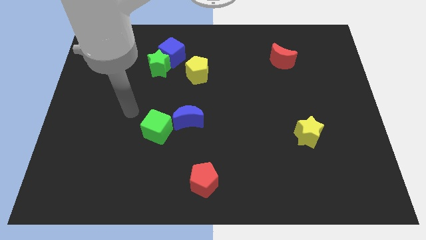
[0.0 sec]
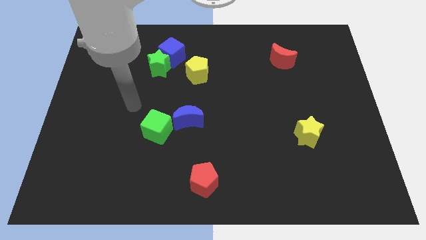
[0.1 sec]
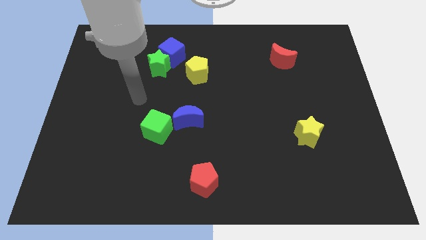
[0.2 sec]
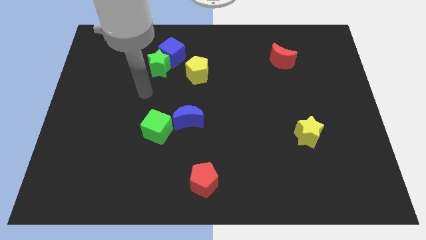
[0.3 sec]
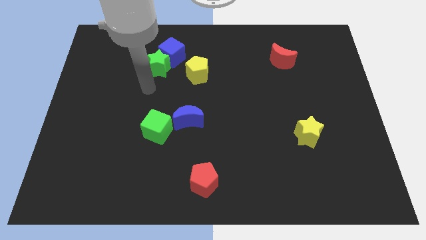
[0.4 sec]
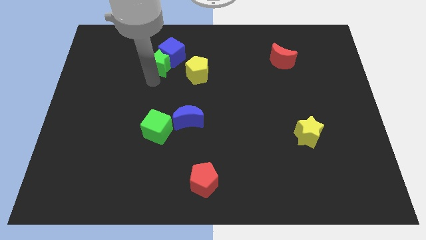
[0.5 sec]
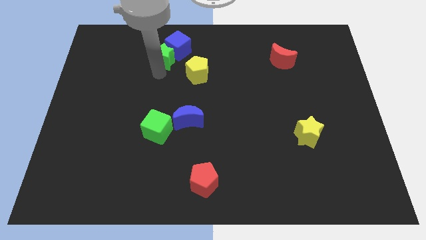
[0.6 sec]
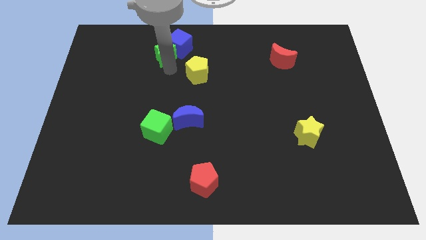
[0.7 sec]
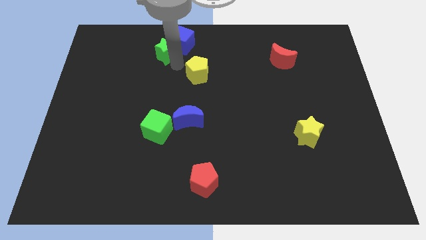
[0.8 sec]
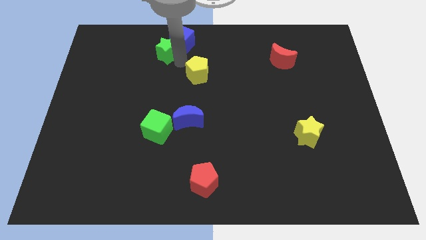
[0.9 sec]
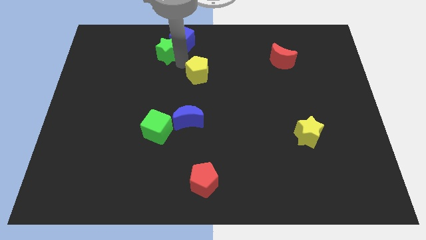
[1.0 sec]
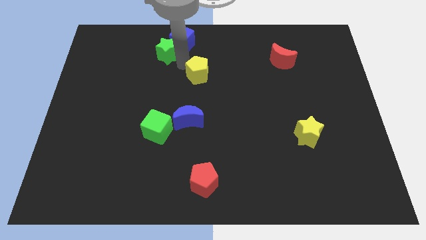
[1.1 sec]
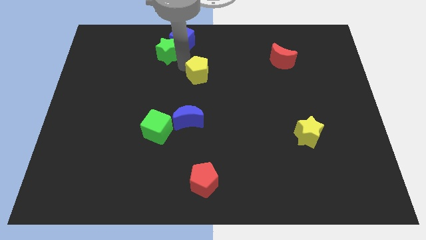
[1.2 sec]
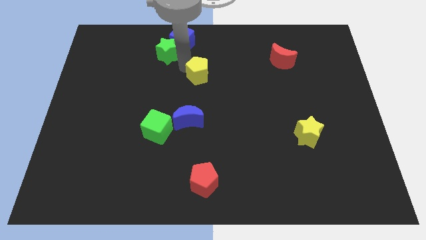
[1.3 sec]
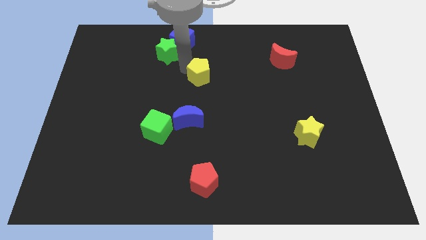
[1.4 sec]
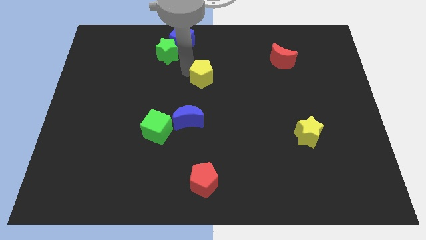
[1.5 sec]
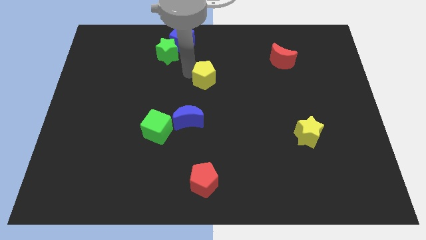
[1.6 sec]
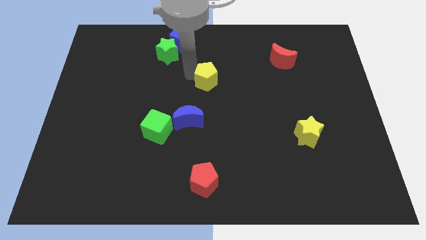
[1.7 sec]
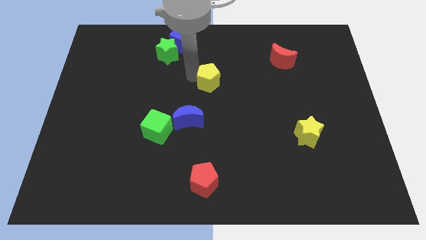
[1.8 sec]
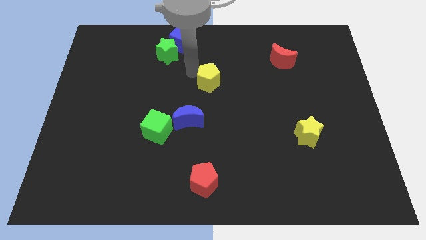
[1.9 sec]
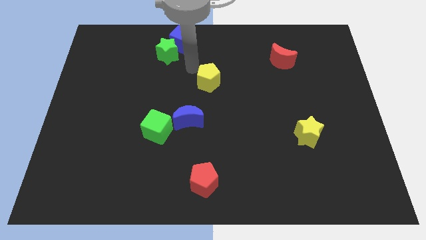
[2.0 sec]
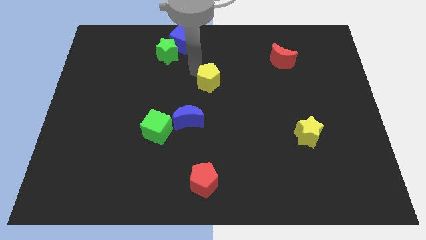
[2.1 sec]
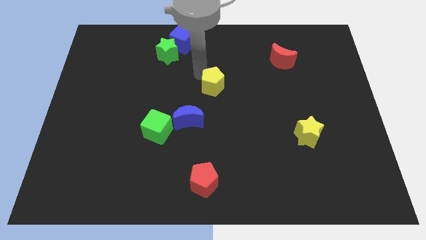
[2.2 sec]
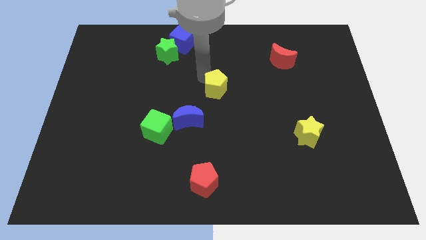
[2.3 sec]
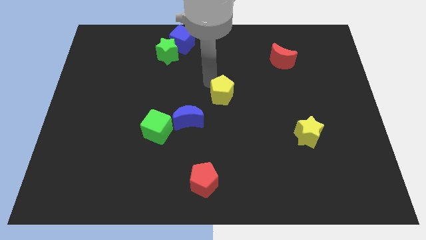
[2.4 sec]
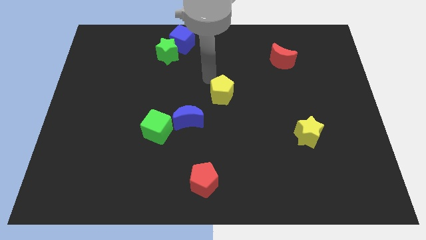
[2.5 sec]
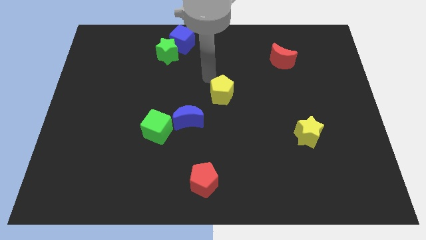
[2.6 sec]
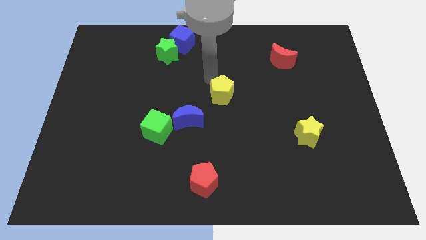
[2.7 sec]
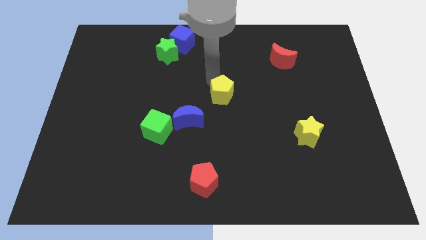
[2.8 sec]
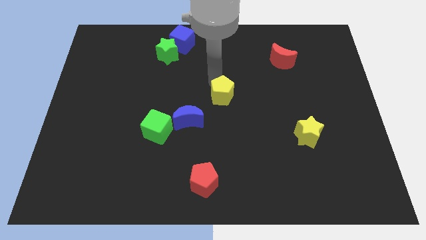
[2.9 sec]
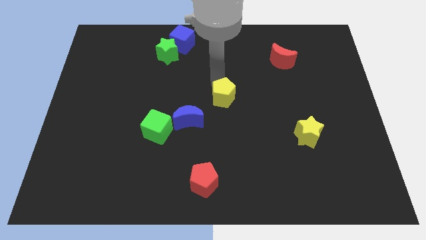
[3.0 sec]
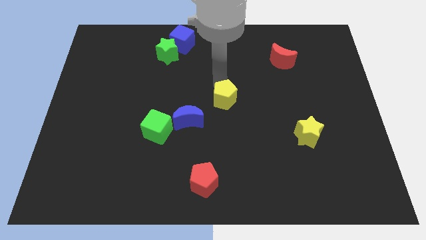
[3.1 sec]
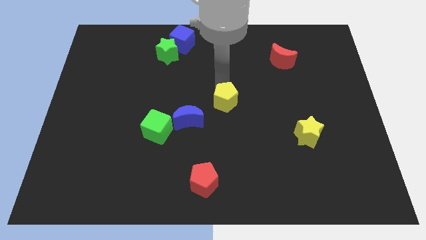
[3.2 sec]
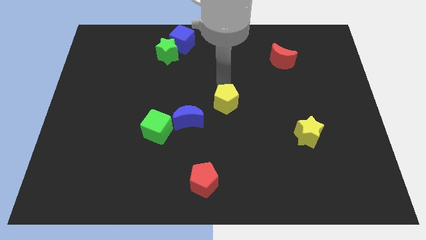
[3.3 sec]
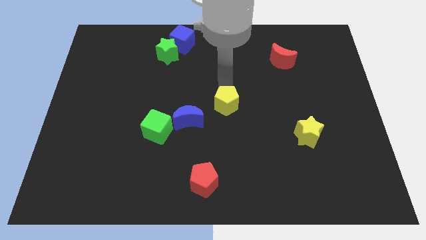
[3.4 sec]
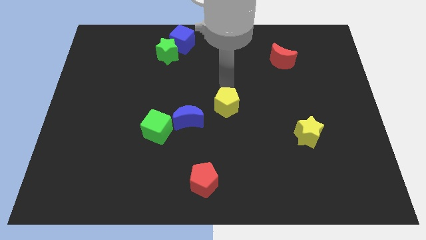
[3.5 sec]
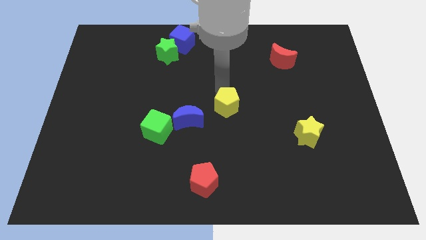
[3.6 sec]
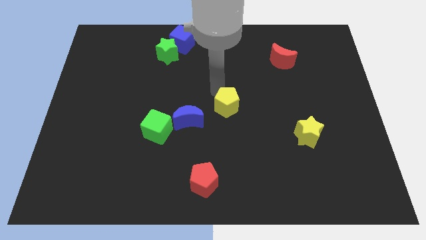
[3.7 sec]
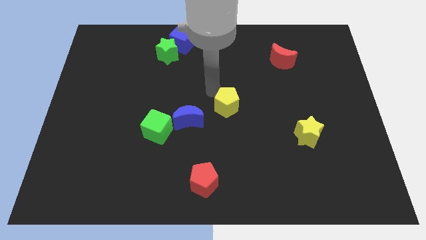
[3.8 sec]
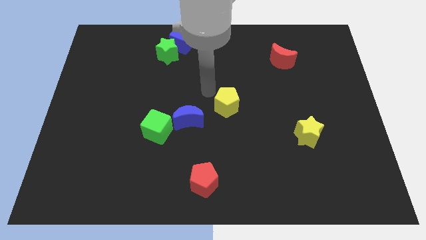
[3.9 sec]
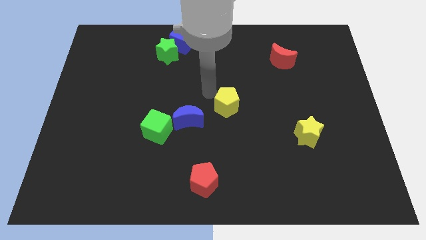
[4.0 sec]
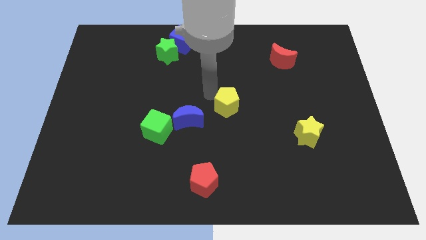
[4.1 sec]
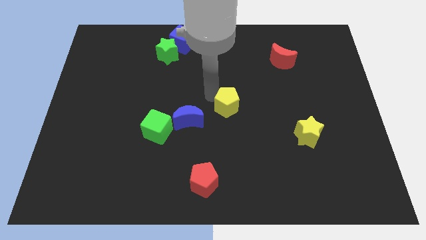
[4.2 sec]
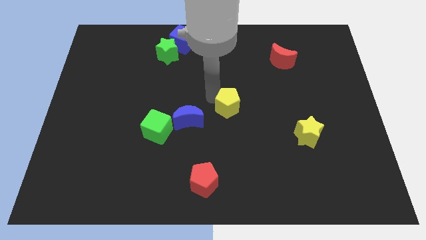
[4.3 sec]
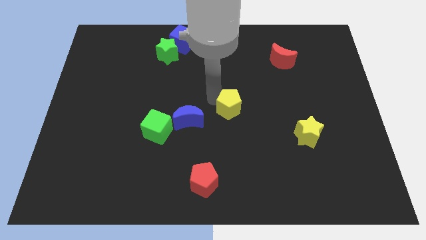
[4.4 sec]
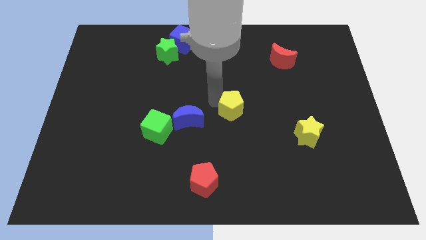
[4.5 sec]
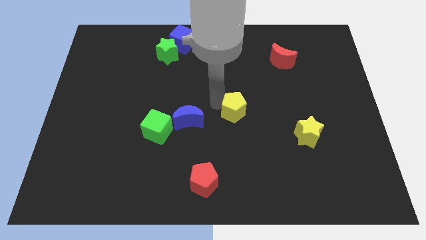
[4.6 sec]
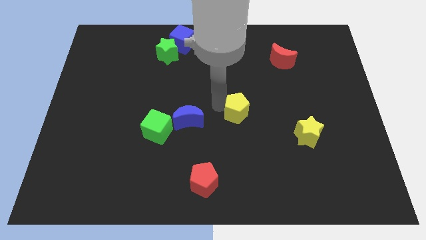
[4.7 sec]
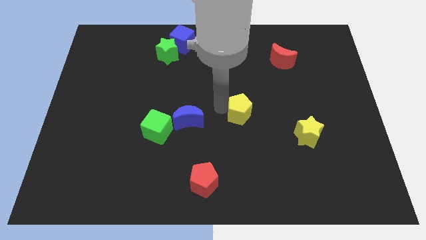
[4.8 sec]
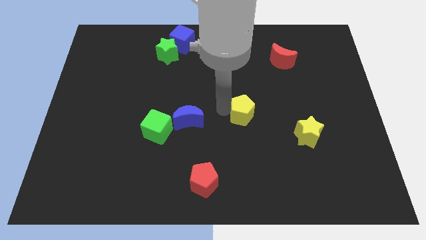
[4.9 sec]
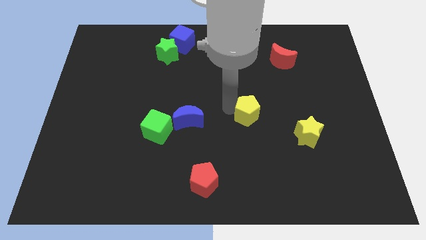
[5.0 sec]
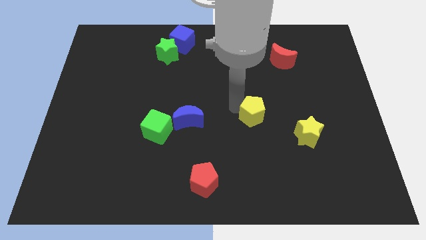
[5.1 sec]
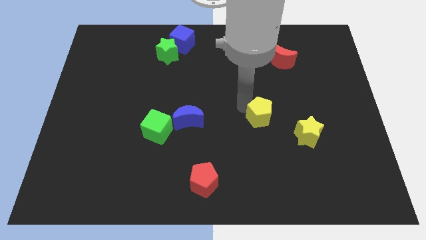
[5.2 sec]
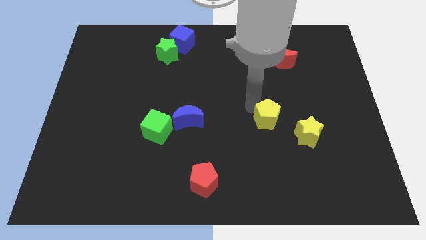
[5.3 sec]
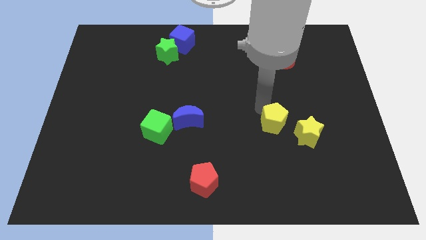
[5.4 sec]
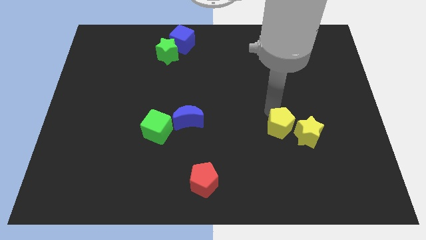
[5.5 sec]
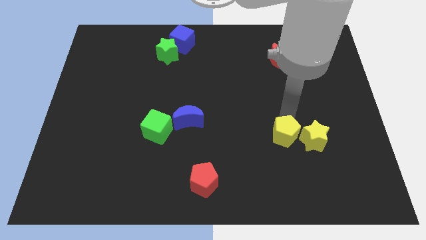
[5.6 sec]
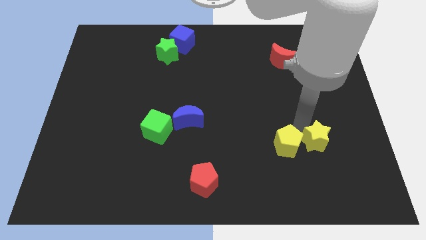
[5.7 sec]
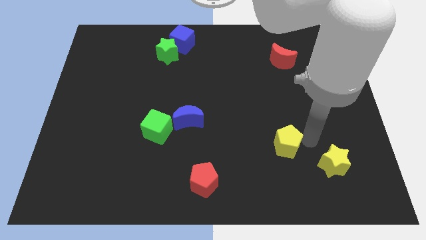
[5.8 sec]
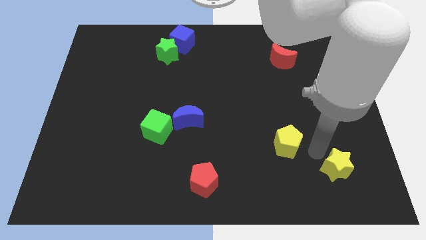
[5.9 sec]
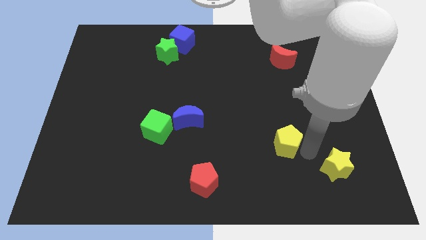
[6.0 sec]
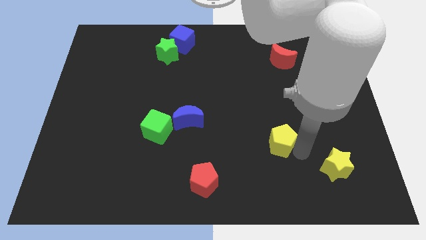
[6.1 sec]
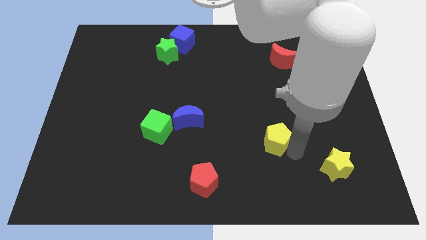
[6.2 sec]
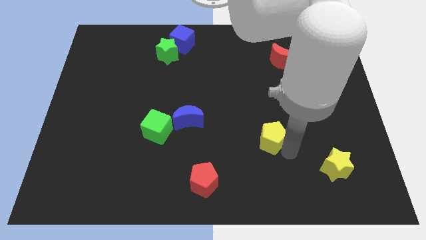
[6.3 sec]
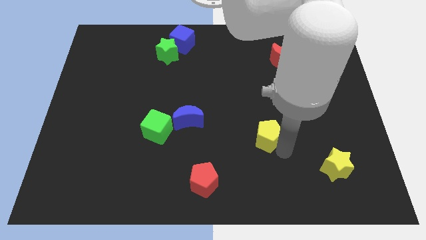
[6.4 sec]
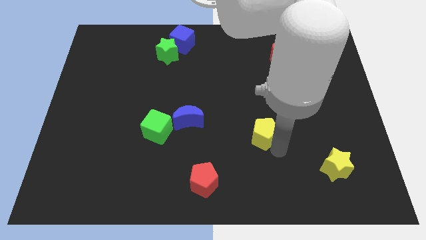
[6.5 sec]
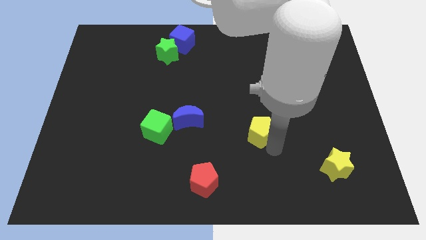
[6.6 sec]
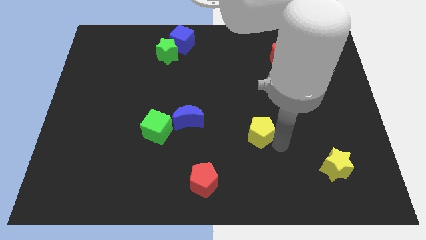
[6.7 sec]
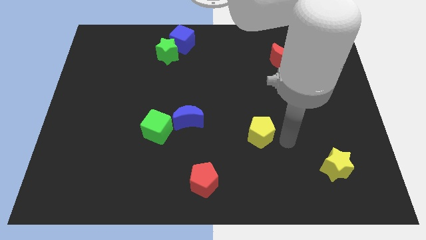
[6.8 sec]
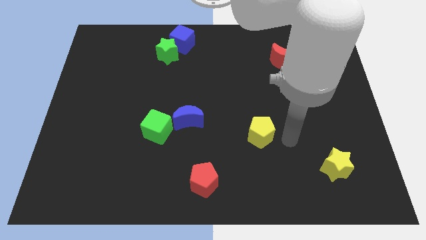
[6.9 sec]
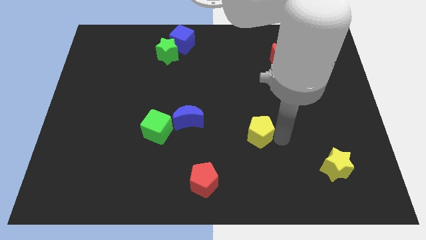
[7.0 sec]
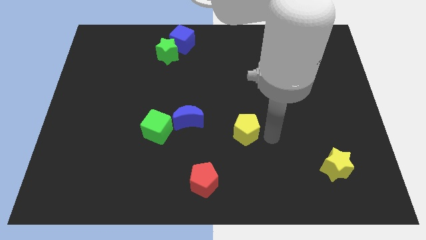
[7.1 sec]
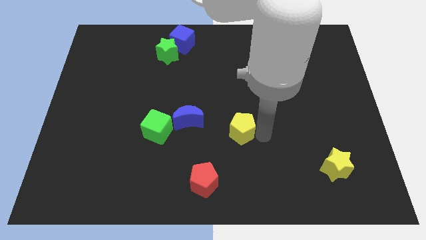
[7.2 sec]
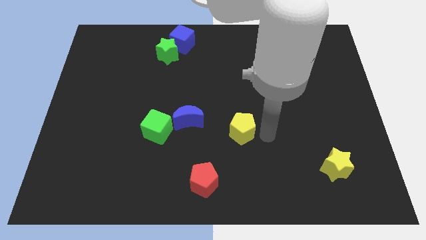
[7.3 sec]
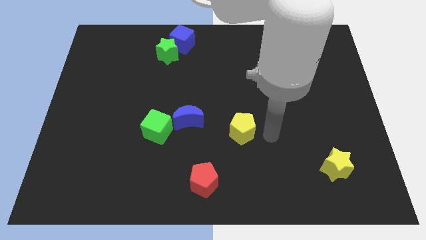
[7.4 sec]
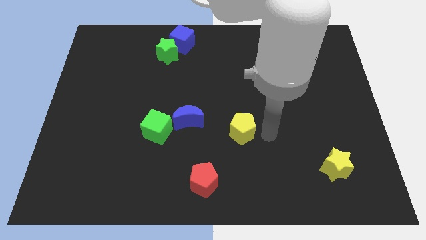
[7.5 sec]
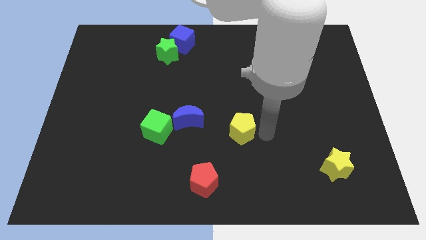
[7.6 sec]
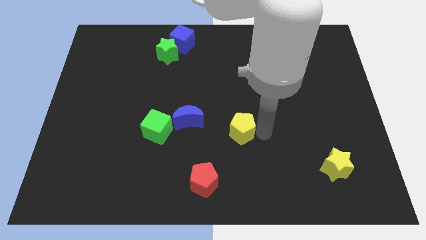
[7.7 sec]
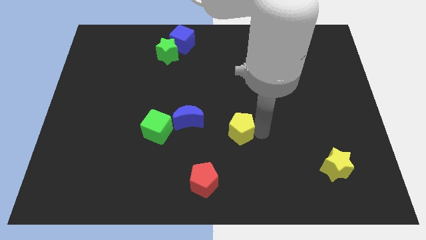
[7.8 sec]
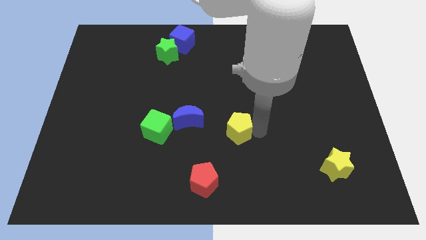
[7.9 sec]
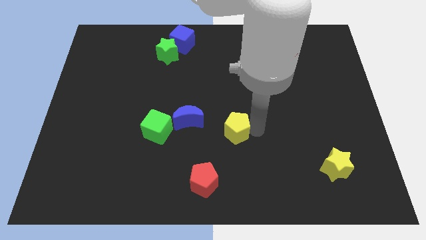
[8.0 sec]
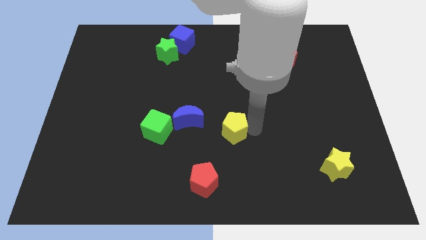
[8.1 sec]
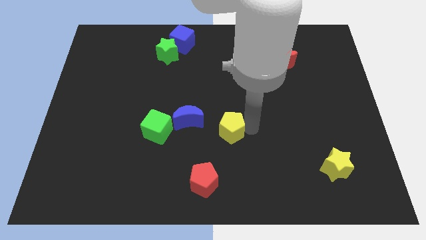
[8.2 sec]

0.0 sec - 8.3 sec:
put the yellow pentagon right of the green cube
